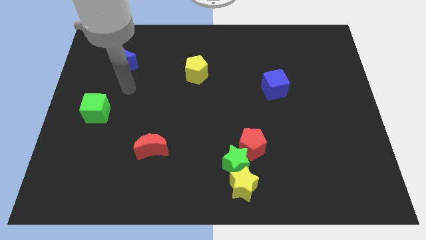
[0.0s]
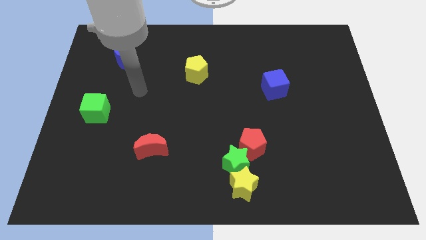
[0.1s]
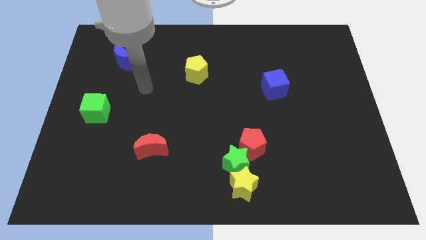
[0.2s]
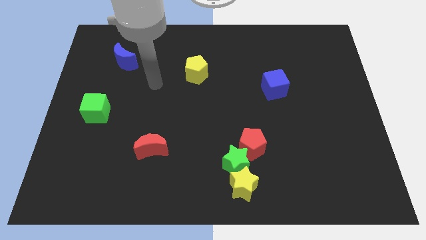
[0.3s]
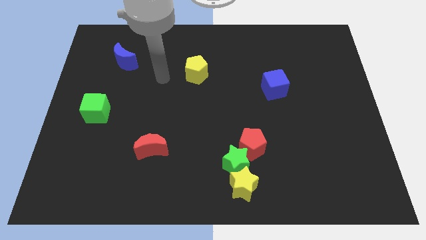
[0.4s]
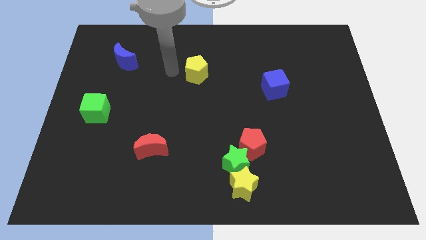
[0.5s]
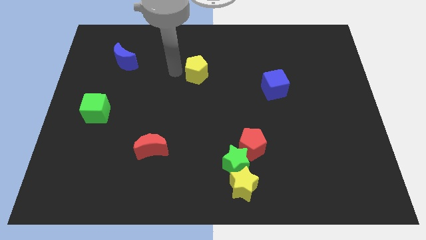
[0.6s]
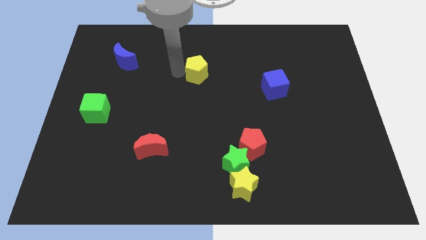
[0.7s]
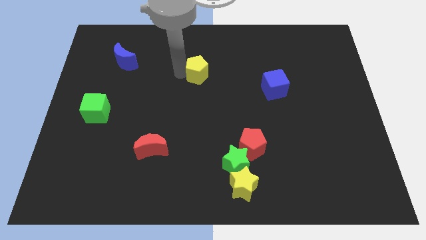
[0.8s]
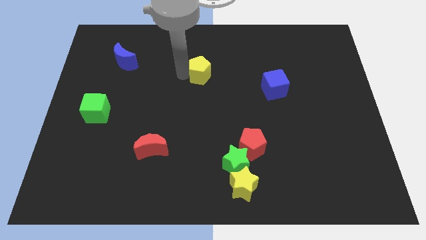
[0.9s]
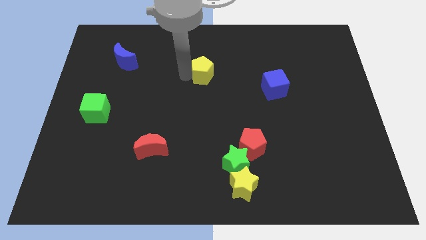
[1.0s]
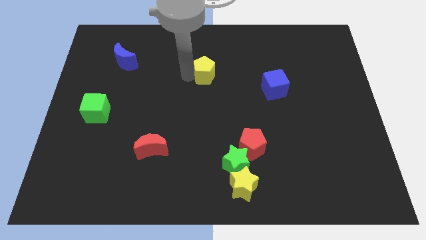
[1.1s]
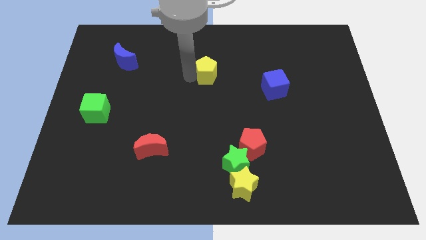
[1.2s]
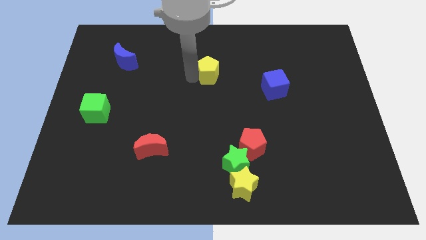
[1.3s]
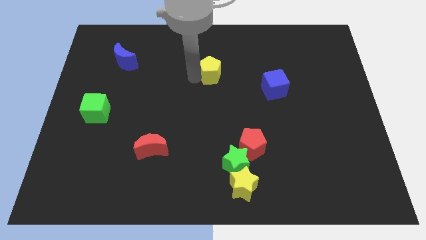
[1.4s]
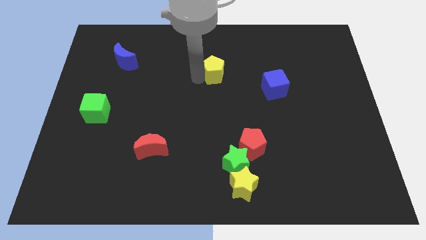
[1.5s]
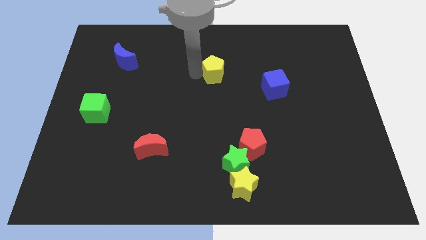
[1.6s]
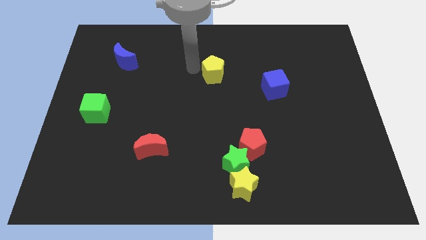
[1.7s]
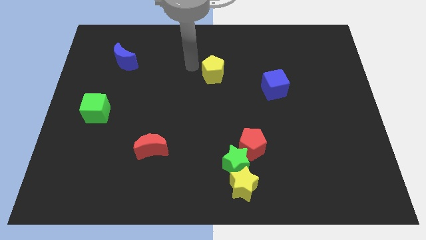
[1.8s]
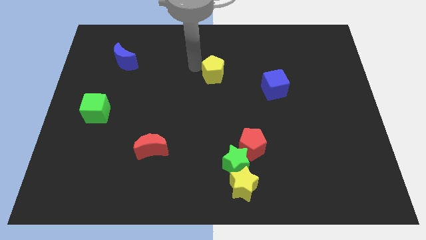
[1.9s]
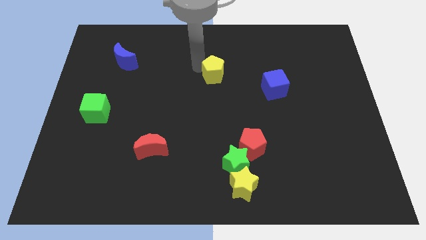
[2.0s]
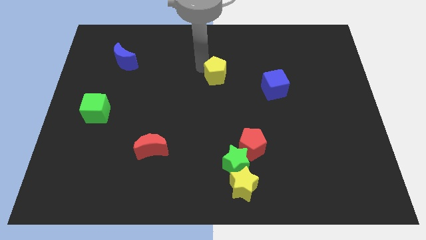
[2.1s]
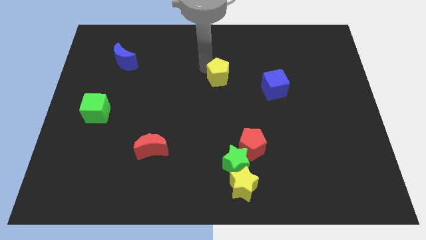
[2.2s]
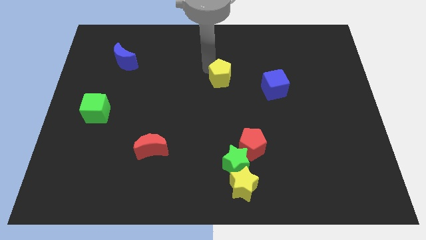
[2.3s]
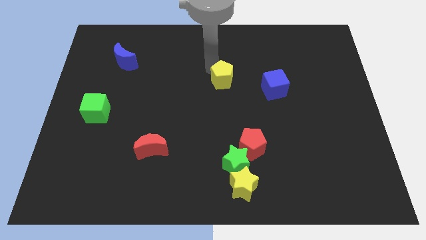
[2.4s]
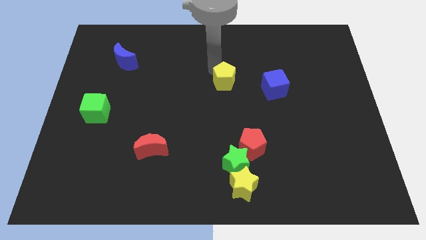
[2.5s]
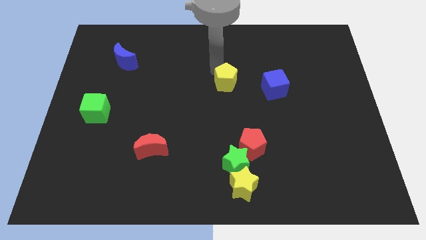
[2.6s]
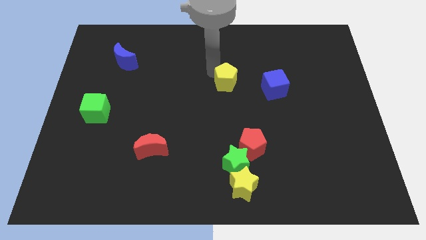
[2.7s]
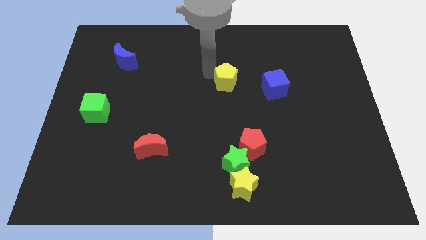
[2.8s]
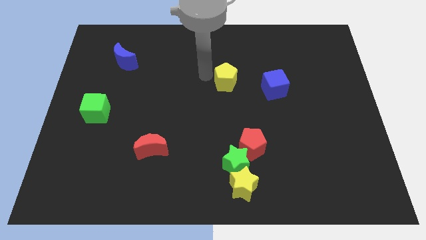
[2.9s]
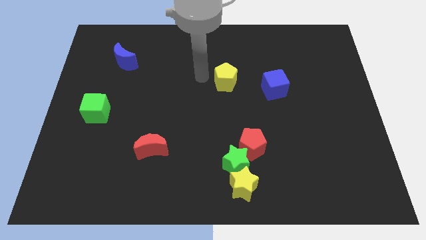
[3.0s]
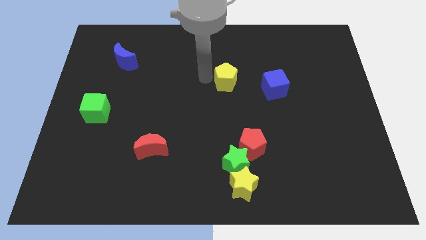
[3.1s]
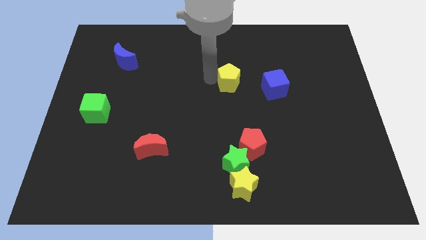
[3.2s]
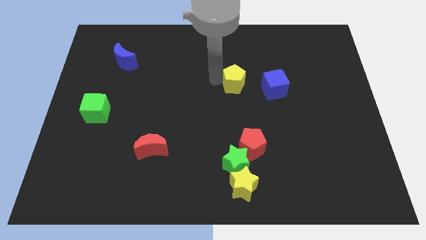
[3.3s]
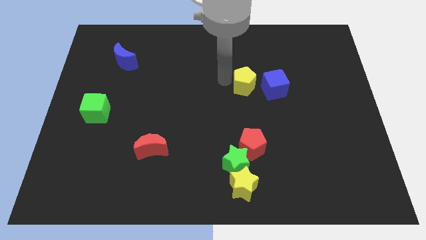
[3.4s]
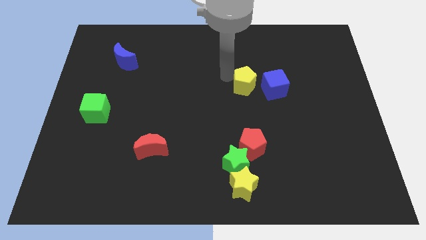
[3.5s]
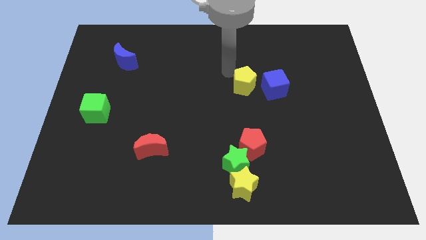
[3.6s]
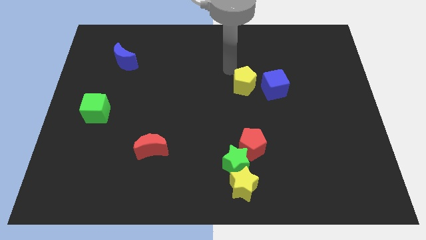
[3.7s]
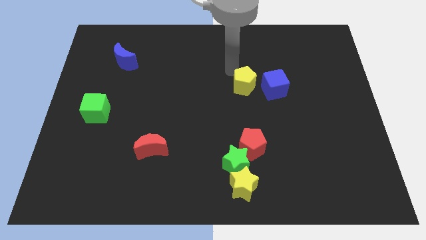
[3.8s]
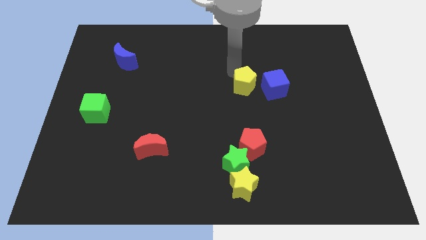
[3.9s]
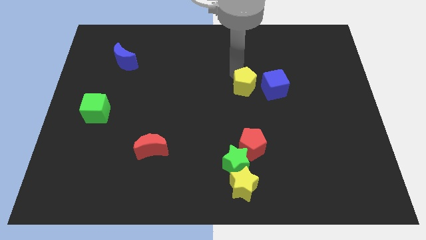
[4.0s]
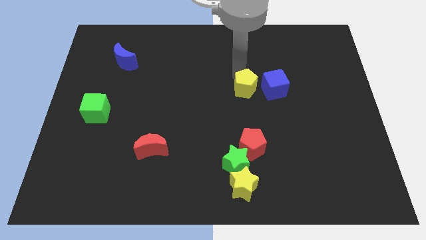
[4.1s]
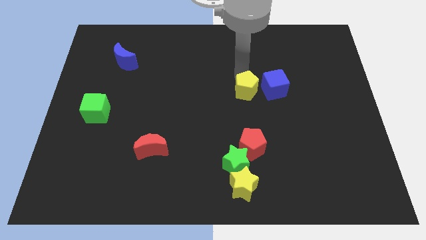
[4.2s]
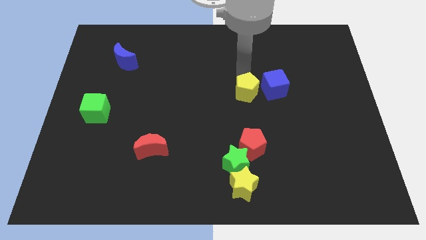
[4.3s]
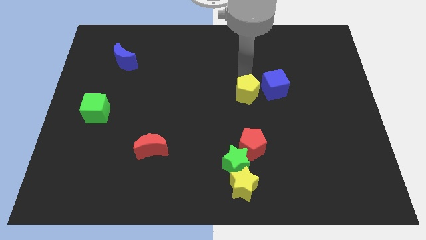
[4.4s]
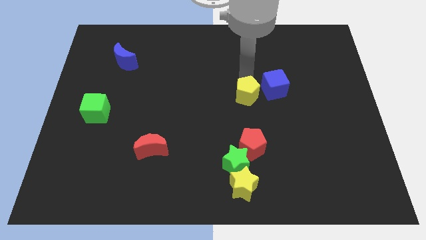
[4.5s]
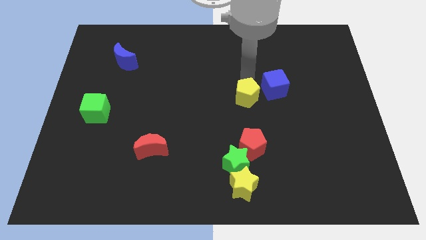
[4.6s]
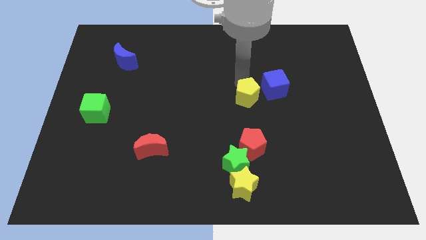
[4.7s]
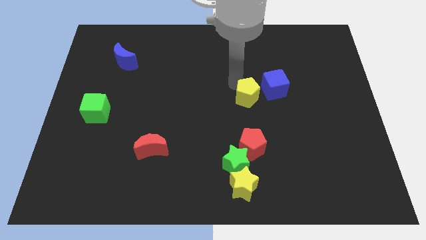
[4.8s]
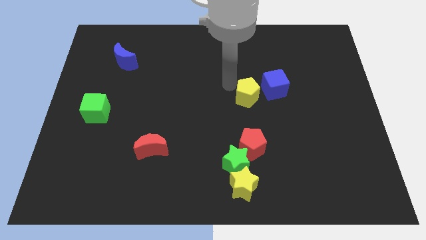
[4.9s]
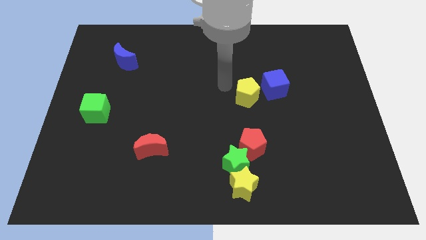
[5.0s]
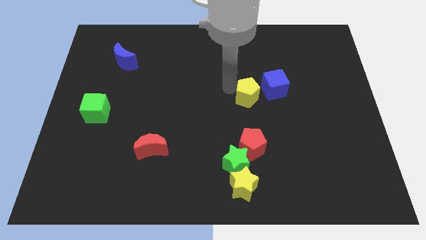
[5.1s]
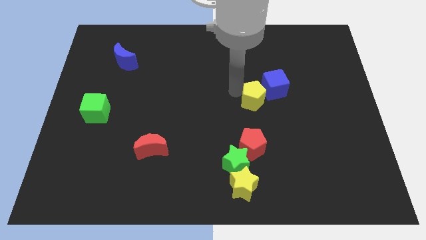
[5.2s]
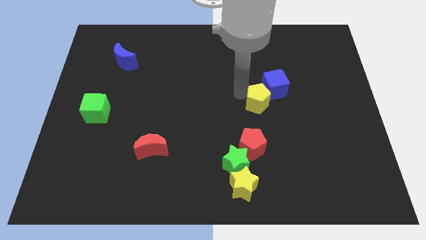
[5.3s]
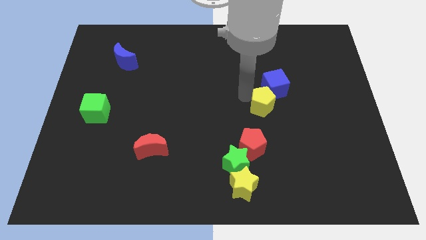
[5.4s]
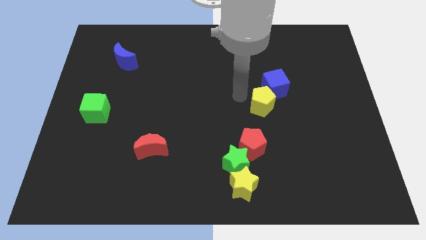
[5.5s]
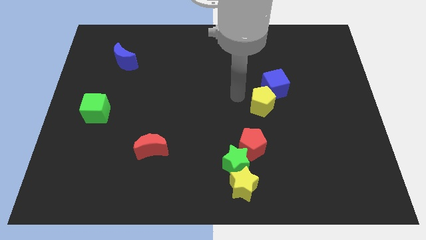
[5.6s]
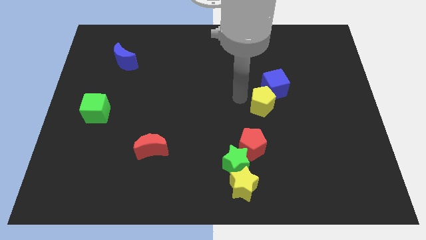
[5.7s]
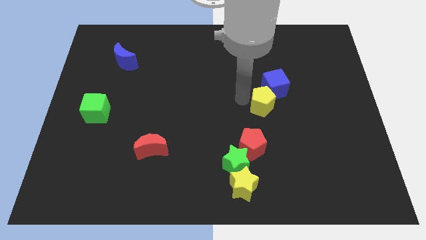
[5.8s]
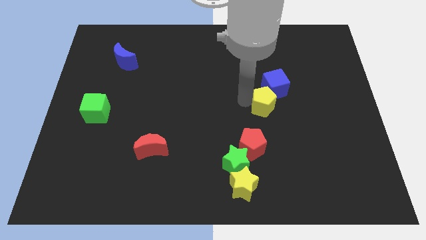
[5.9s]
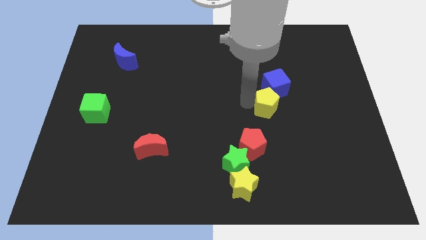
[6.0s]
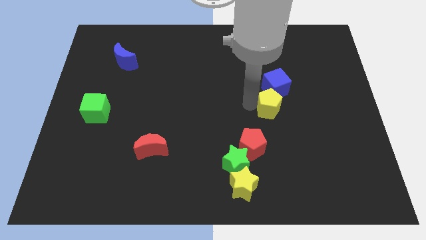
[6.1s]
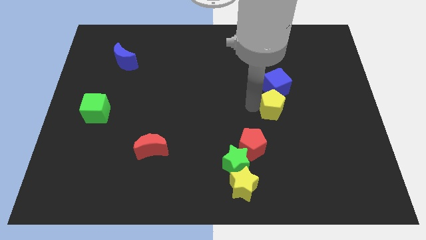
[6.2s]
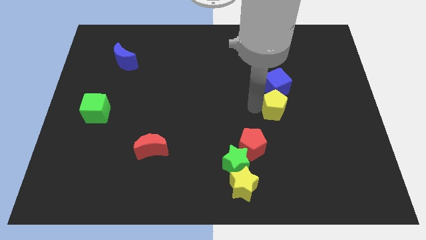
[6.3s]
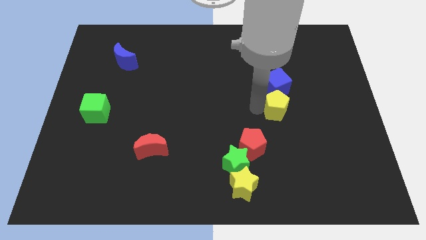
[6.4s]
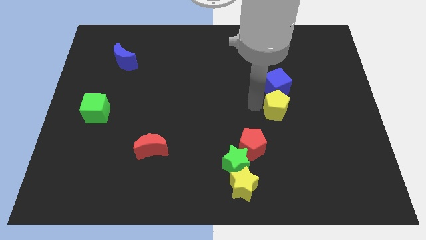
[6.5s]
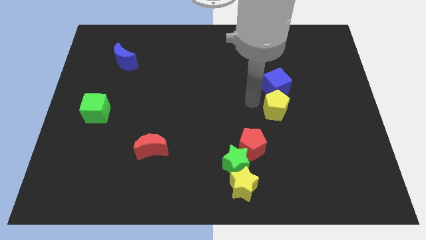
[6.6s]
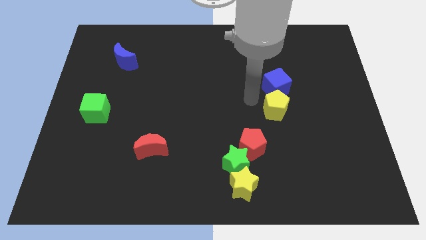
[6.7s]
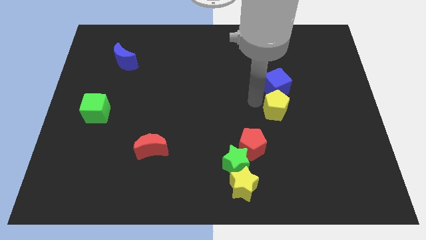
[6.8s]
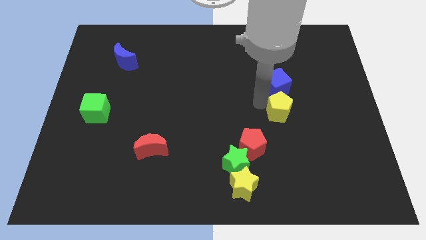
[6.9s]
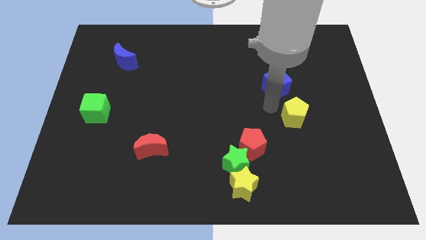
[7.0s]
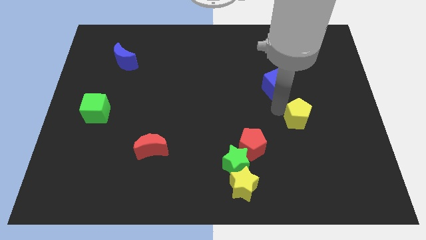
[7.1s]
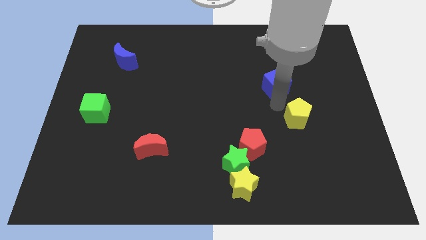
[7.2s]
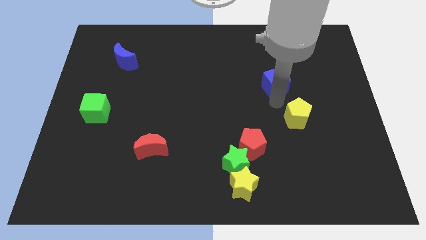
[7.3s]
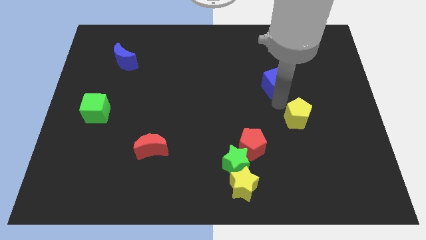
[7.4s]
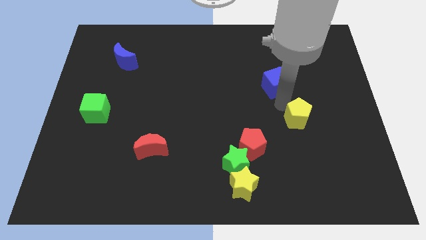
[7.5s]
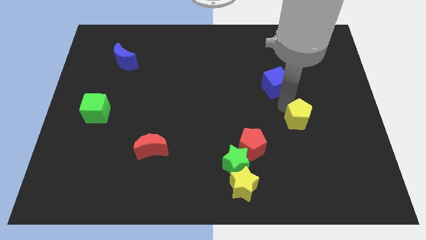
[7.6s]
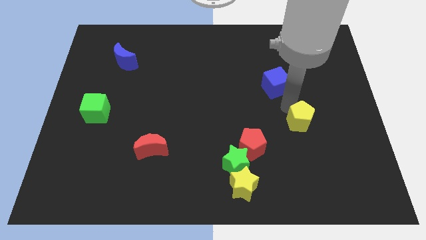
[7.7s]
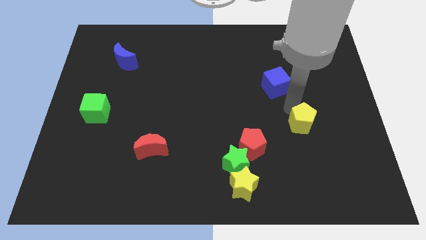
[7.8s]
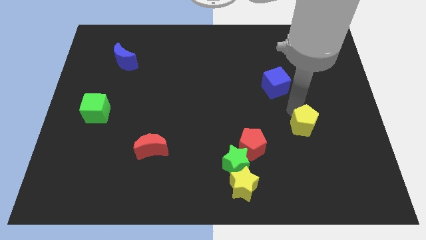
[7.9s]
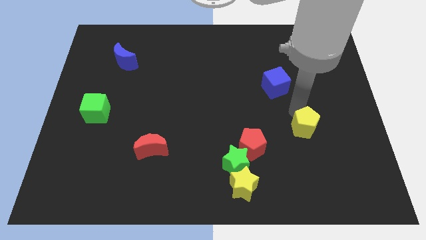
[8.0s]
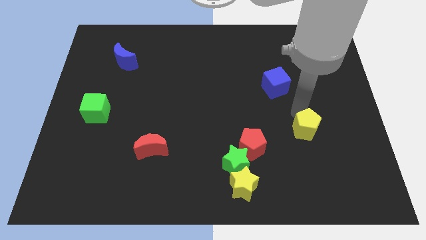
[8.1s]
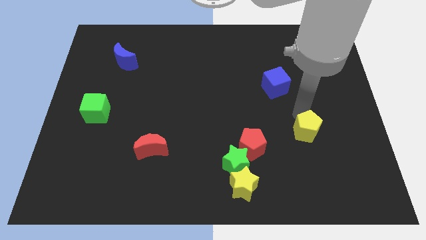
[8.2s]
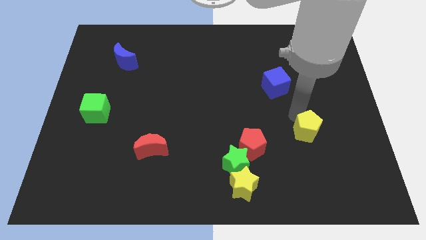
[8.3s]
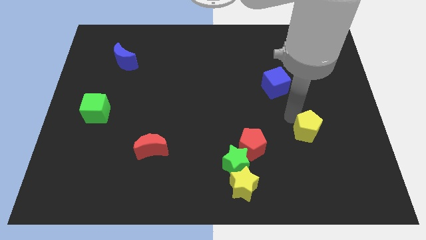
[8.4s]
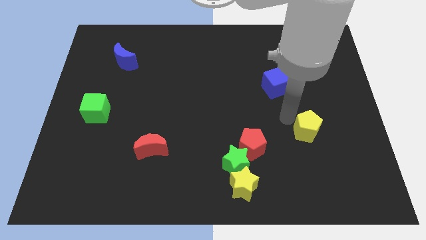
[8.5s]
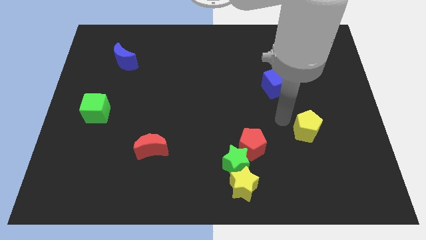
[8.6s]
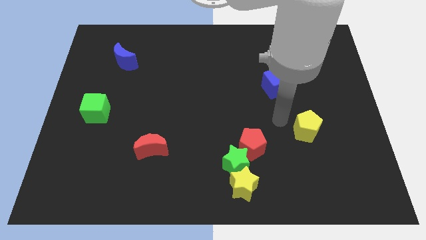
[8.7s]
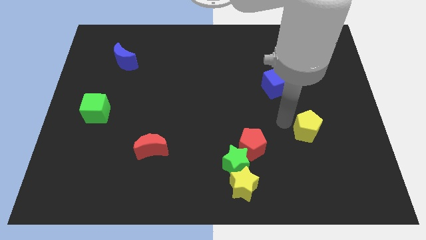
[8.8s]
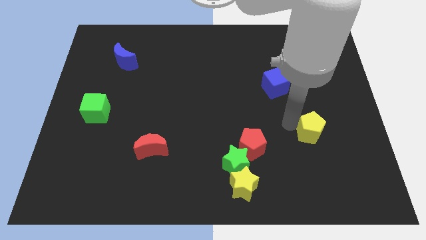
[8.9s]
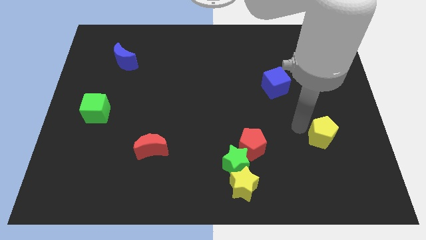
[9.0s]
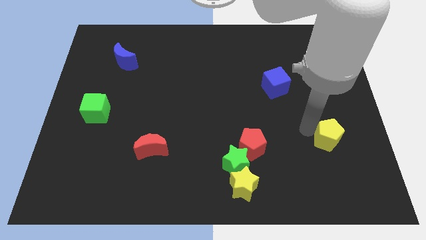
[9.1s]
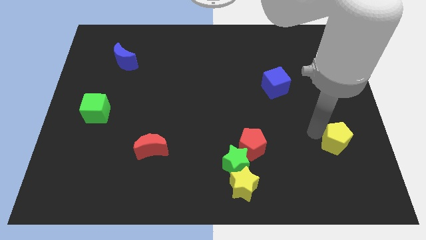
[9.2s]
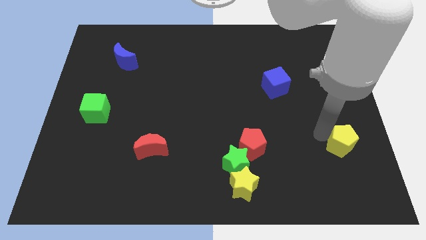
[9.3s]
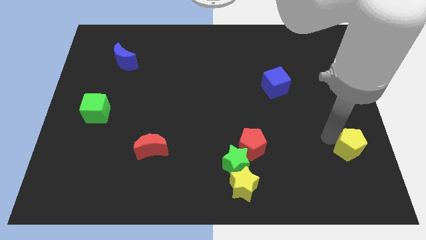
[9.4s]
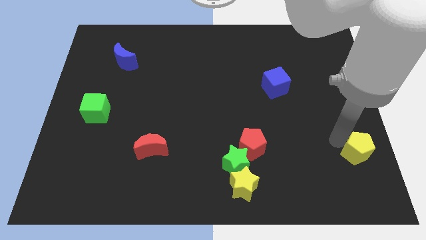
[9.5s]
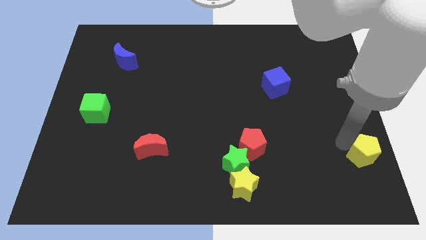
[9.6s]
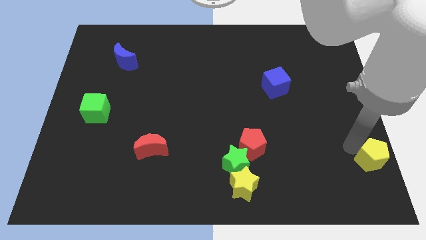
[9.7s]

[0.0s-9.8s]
slide the yellow pentagon to the lower right corner
